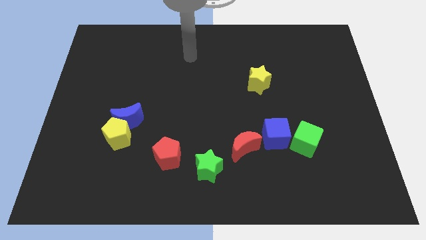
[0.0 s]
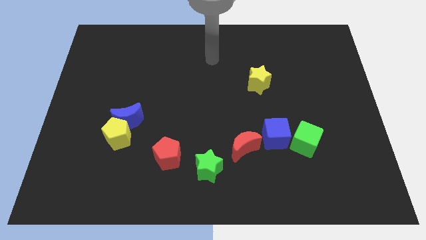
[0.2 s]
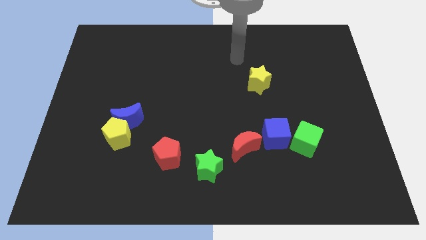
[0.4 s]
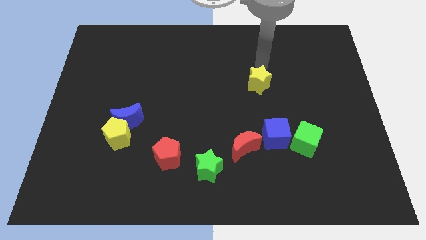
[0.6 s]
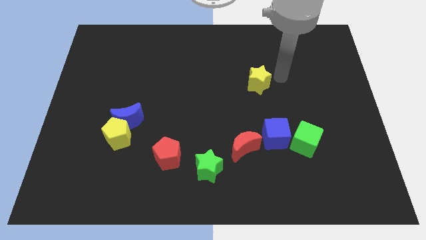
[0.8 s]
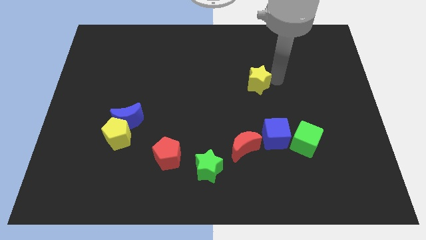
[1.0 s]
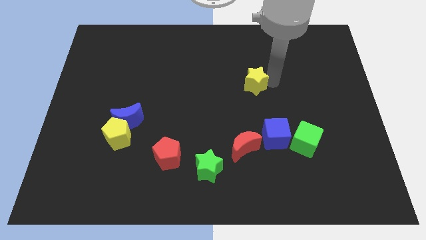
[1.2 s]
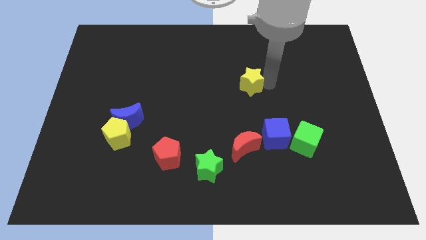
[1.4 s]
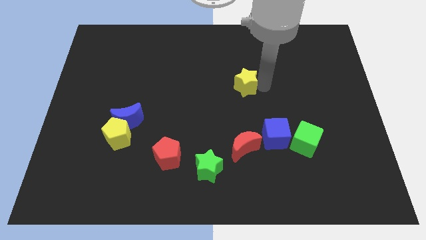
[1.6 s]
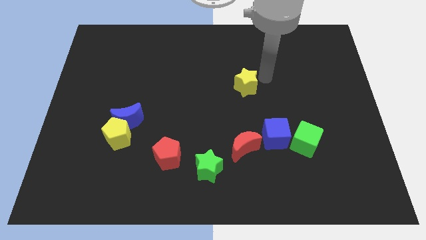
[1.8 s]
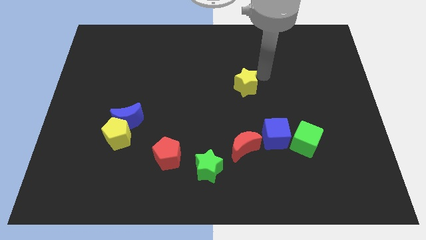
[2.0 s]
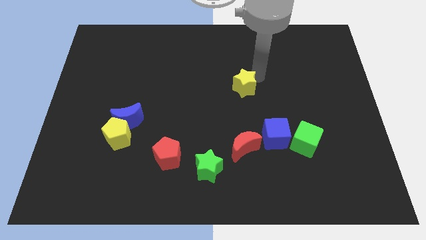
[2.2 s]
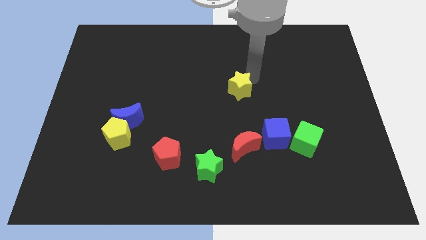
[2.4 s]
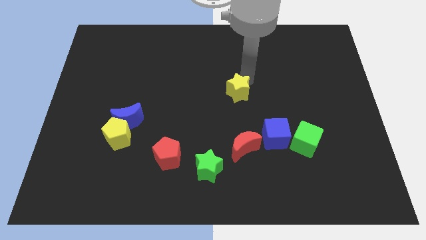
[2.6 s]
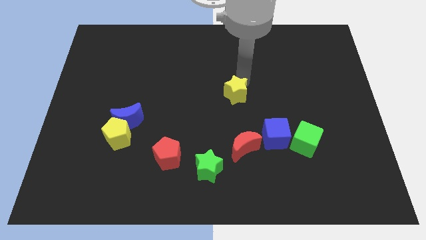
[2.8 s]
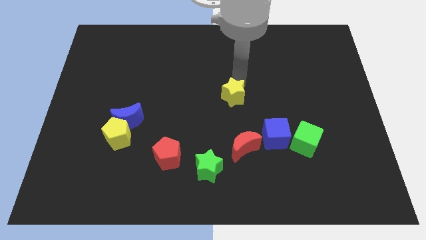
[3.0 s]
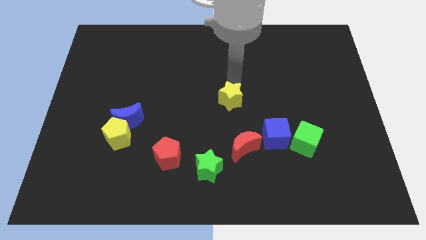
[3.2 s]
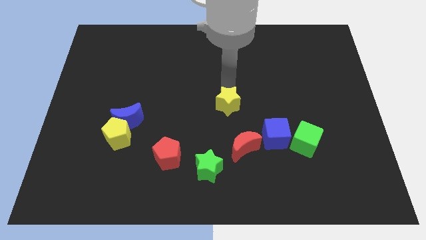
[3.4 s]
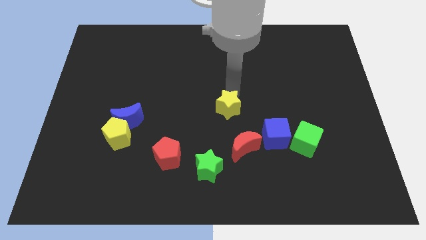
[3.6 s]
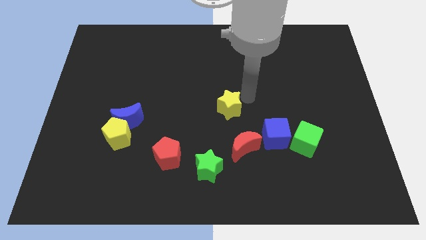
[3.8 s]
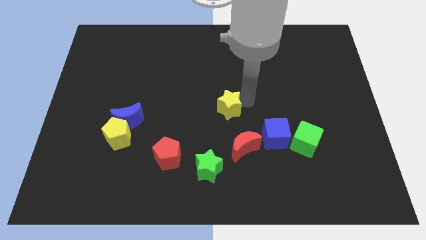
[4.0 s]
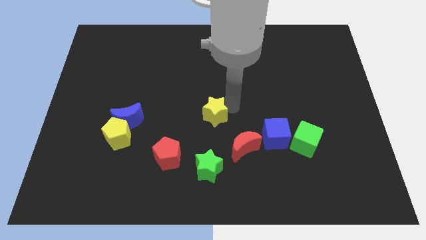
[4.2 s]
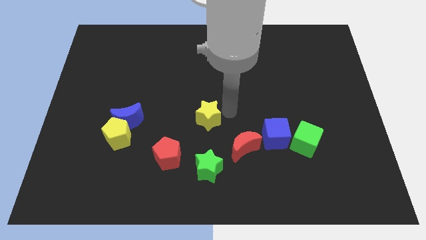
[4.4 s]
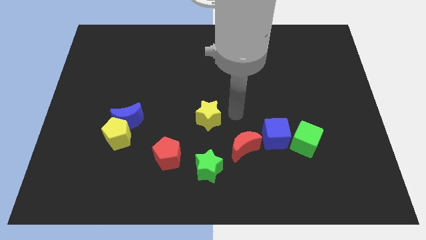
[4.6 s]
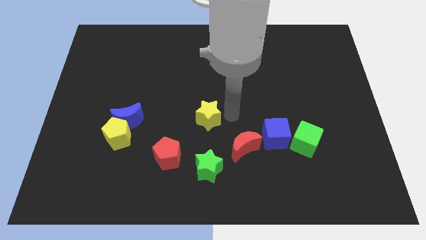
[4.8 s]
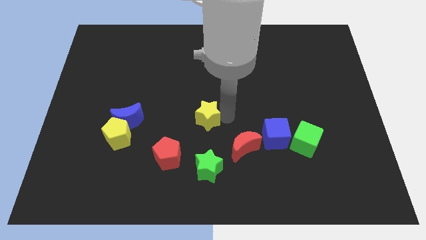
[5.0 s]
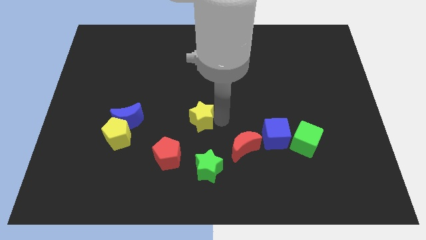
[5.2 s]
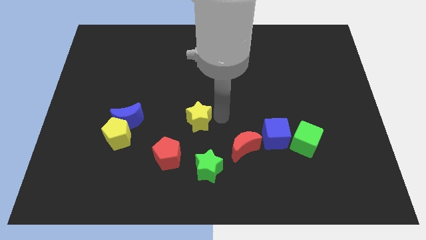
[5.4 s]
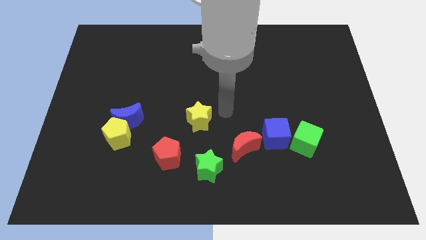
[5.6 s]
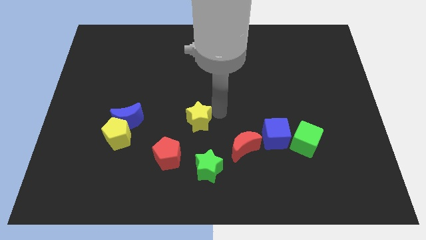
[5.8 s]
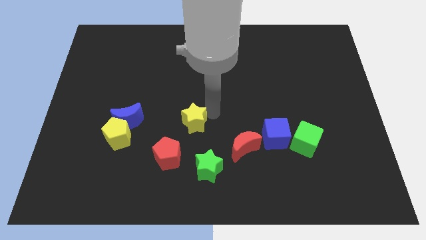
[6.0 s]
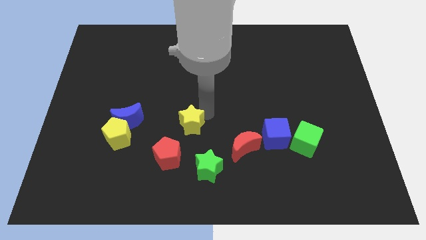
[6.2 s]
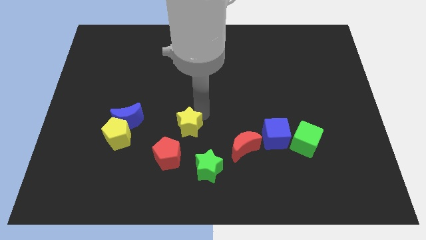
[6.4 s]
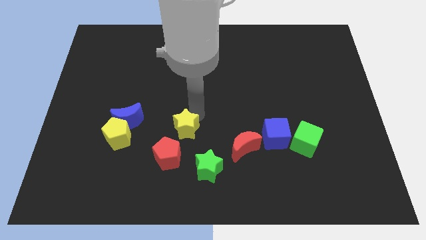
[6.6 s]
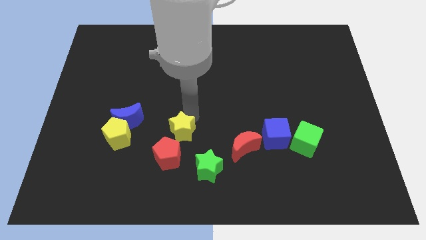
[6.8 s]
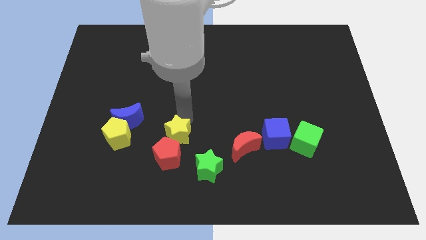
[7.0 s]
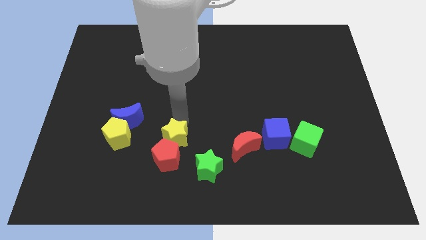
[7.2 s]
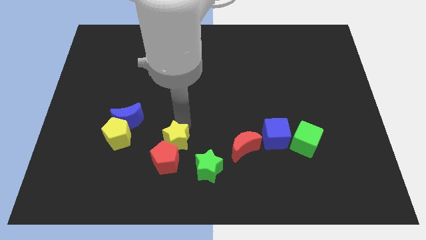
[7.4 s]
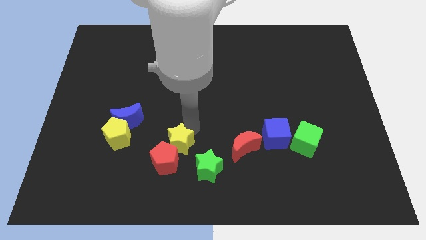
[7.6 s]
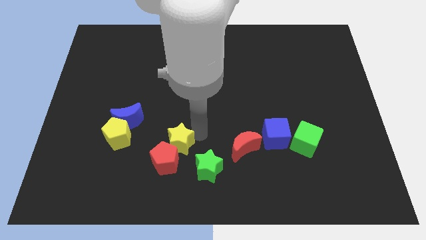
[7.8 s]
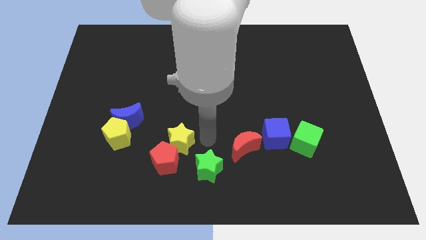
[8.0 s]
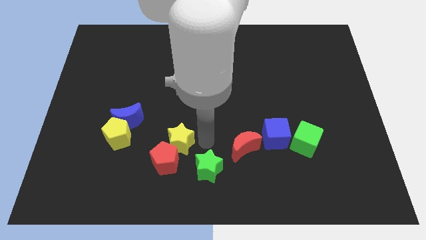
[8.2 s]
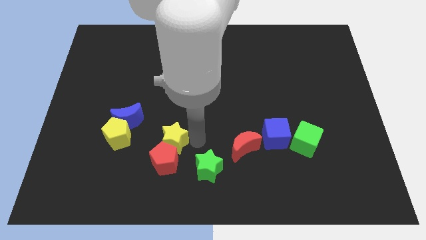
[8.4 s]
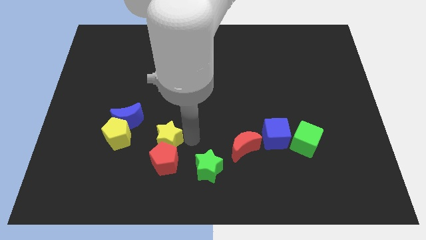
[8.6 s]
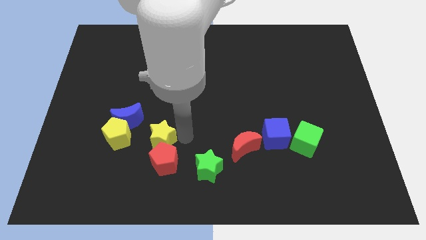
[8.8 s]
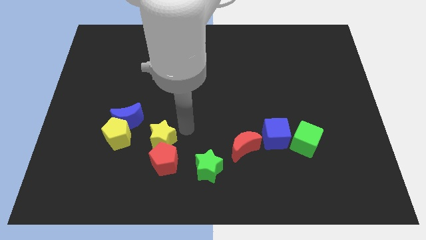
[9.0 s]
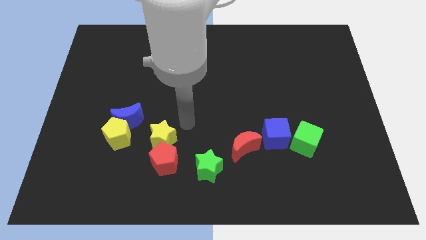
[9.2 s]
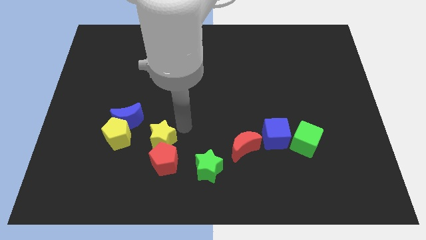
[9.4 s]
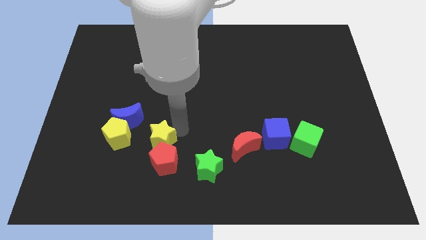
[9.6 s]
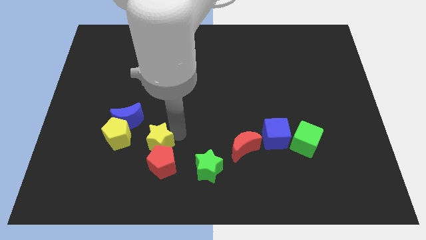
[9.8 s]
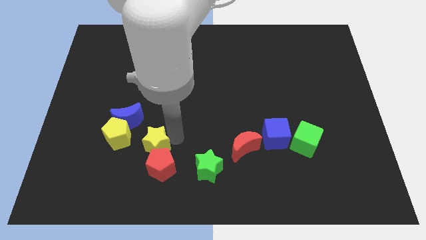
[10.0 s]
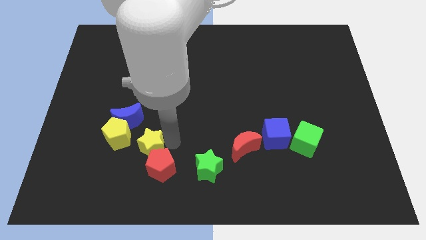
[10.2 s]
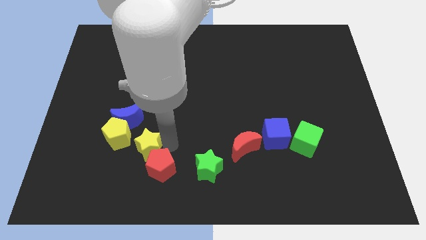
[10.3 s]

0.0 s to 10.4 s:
move the yellow star just left of the green star

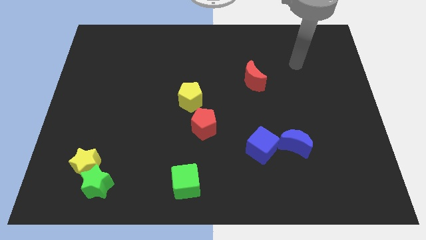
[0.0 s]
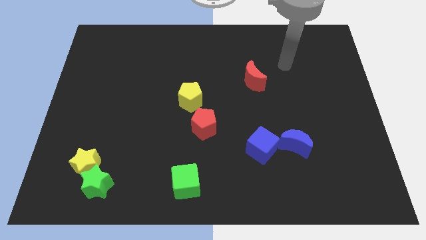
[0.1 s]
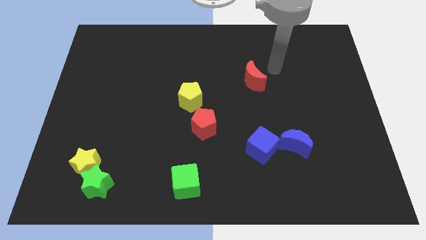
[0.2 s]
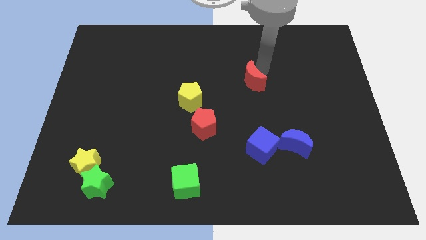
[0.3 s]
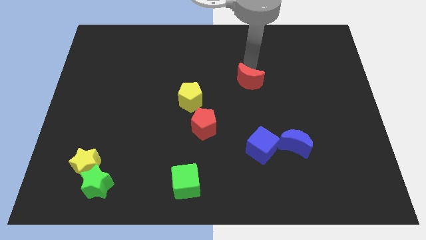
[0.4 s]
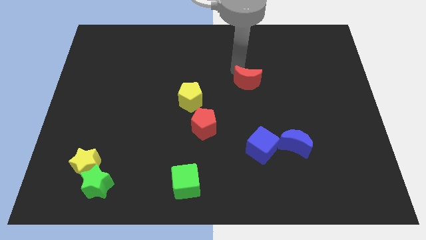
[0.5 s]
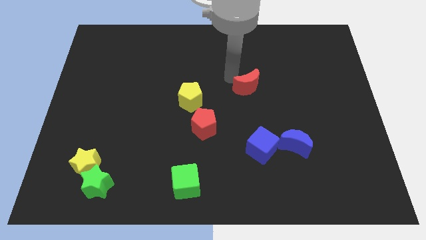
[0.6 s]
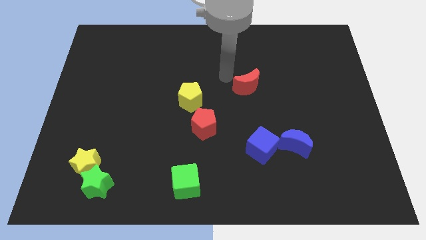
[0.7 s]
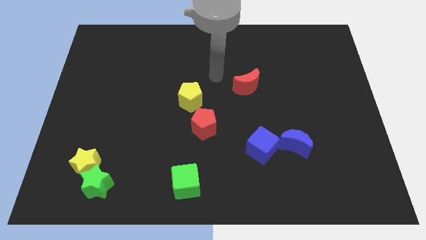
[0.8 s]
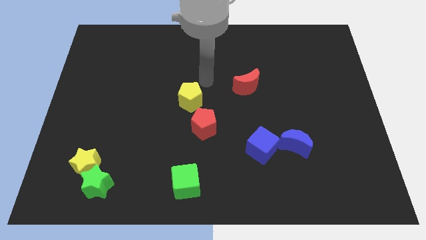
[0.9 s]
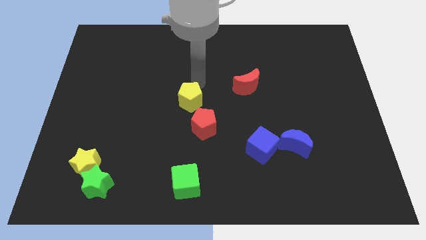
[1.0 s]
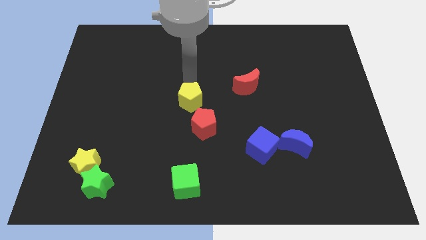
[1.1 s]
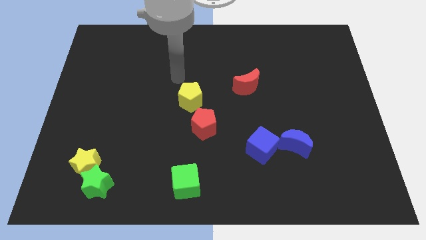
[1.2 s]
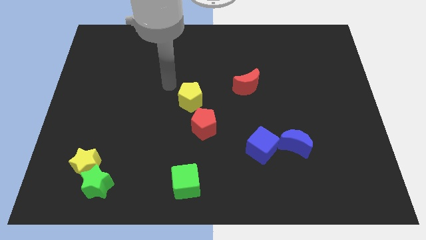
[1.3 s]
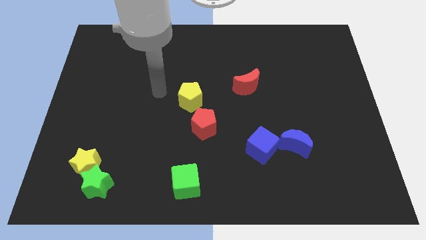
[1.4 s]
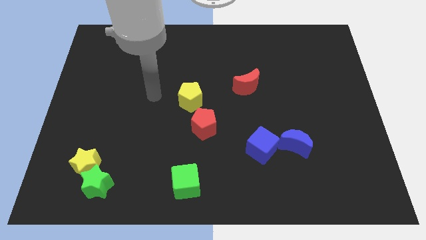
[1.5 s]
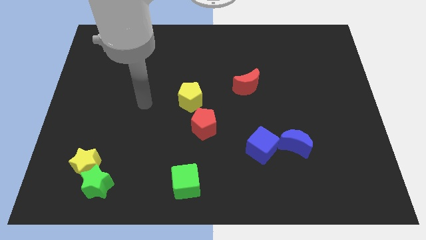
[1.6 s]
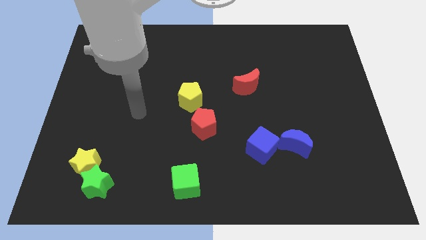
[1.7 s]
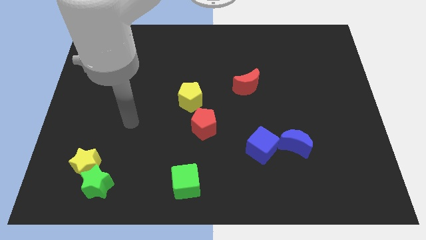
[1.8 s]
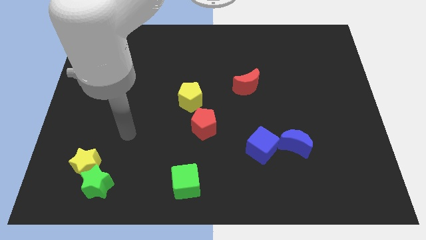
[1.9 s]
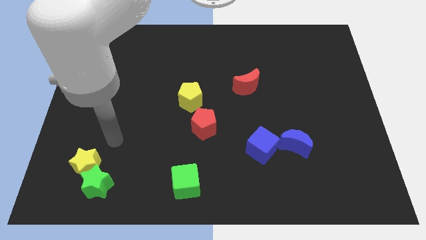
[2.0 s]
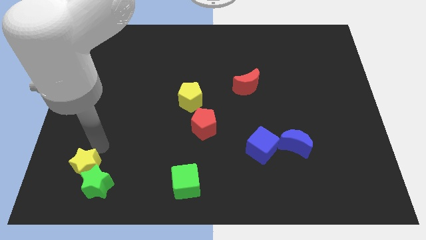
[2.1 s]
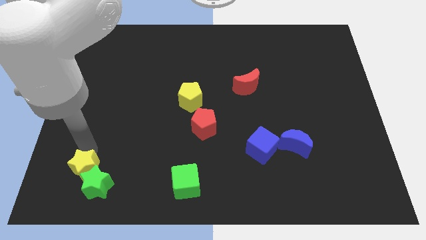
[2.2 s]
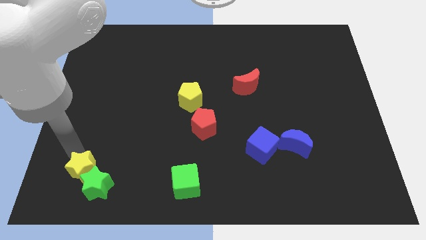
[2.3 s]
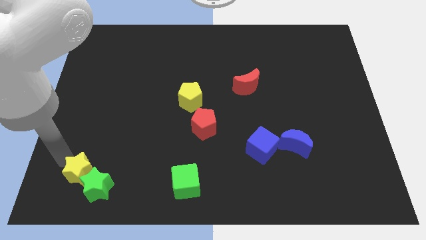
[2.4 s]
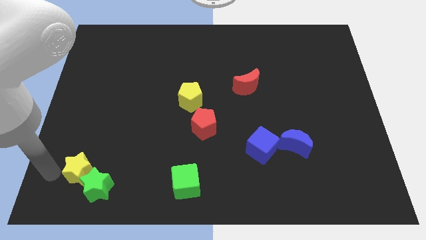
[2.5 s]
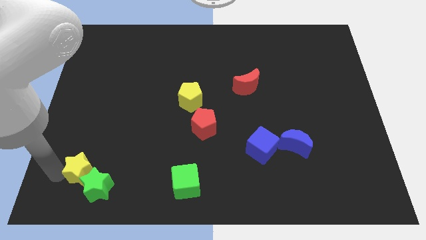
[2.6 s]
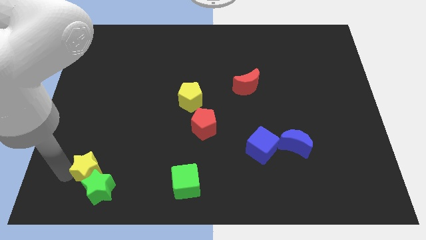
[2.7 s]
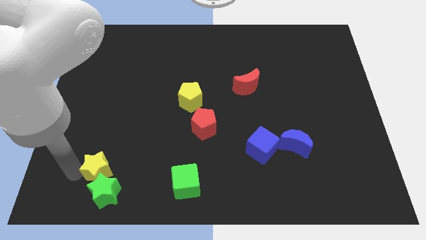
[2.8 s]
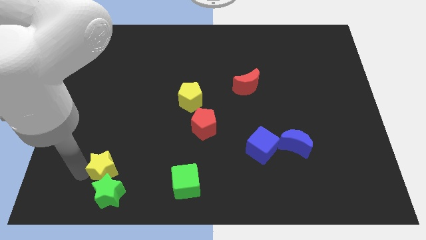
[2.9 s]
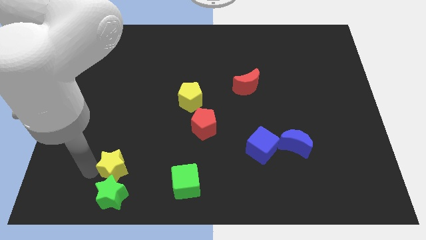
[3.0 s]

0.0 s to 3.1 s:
move the yellow star just left of the green cube
